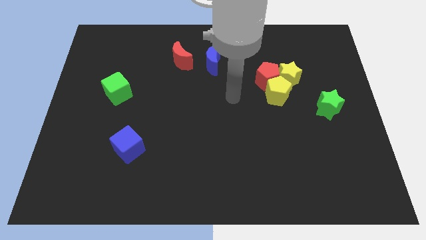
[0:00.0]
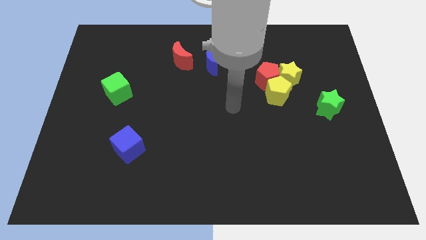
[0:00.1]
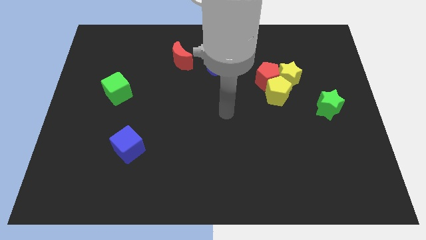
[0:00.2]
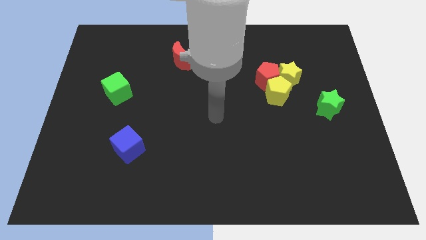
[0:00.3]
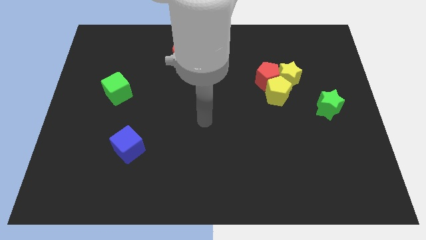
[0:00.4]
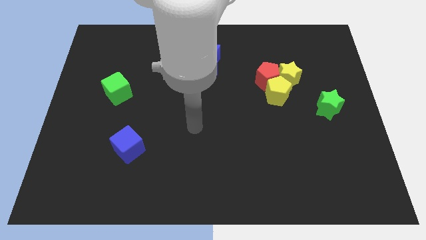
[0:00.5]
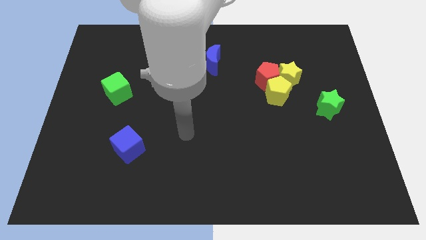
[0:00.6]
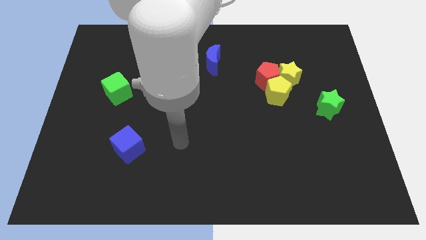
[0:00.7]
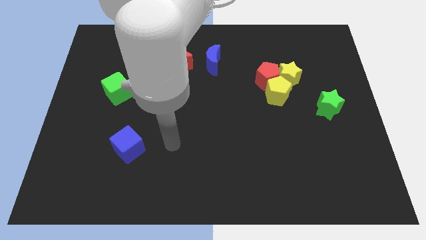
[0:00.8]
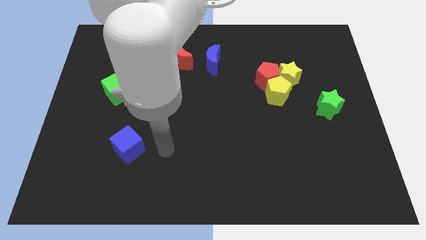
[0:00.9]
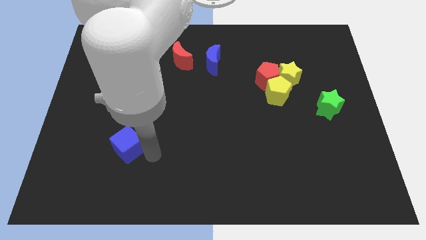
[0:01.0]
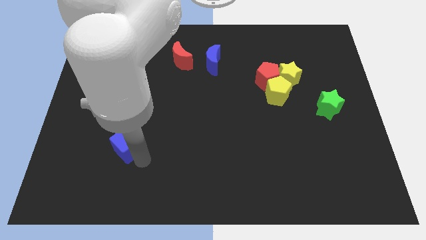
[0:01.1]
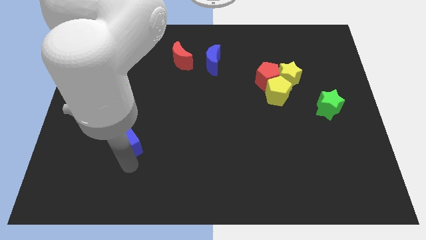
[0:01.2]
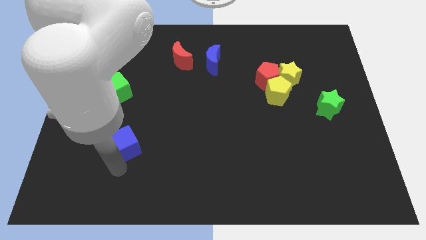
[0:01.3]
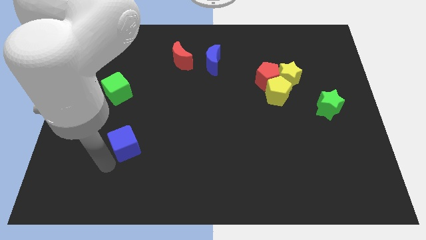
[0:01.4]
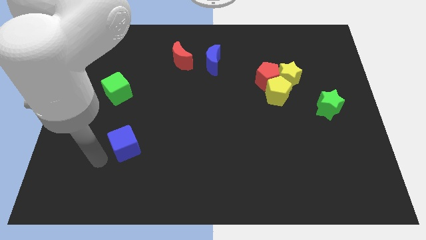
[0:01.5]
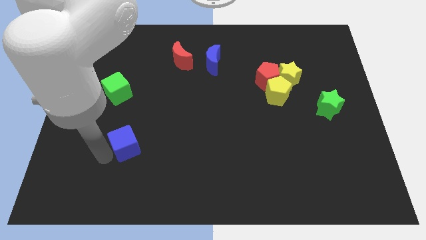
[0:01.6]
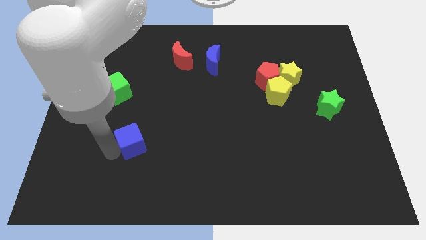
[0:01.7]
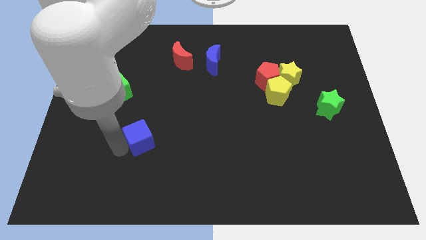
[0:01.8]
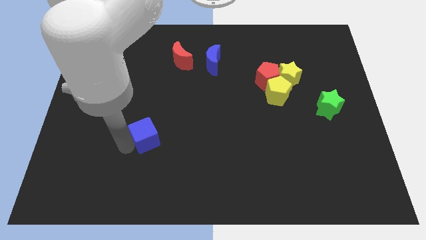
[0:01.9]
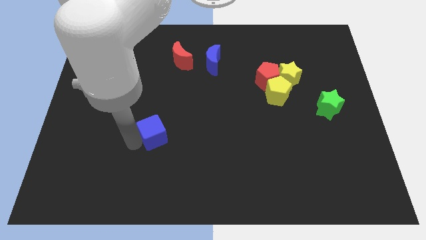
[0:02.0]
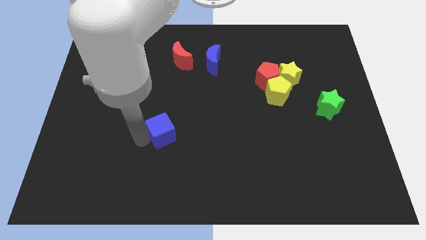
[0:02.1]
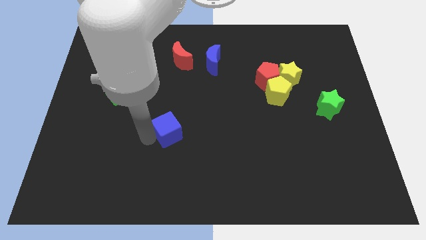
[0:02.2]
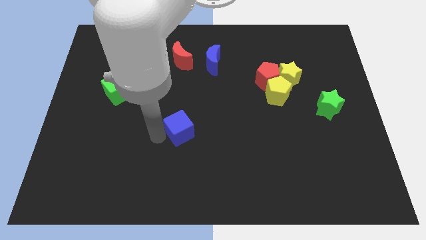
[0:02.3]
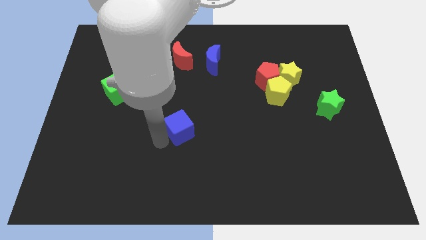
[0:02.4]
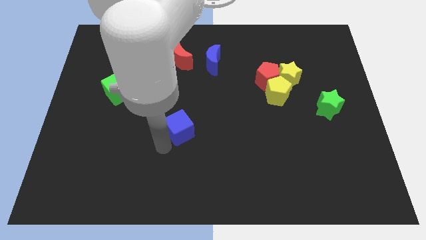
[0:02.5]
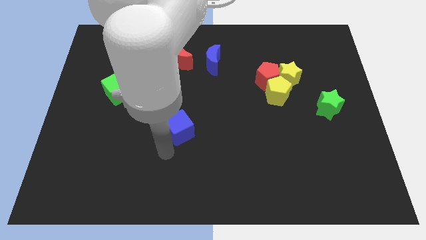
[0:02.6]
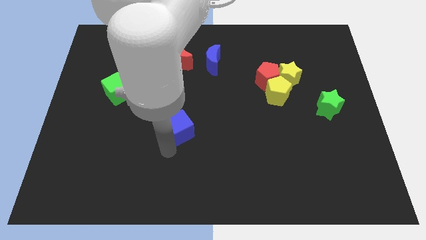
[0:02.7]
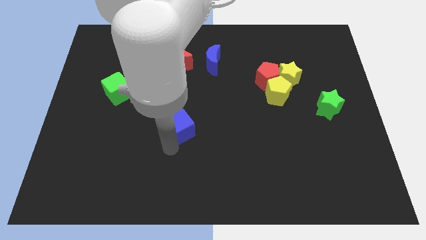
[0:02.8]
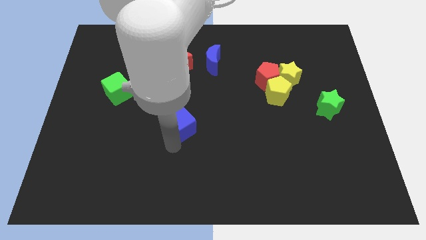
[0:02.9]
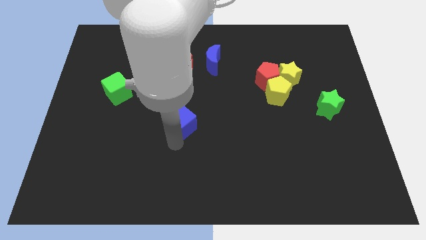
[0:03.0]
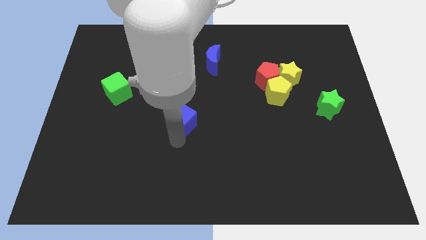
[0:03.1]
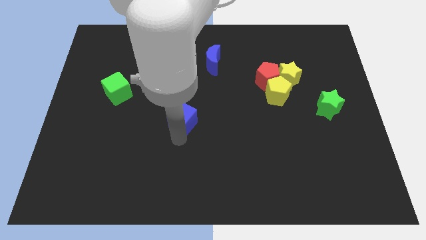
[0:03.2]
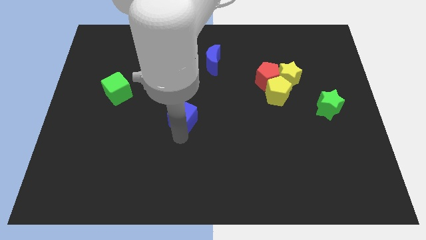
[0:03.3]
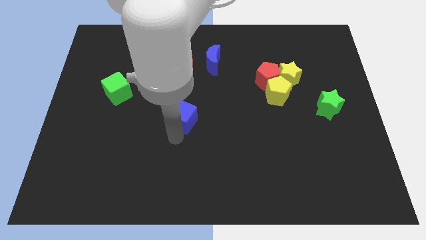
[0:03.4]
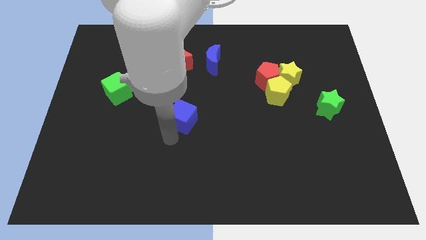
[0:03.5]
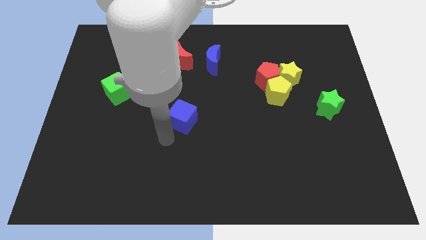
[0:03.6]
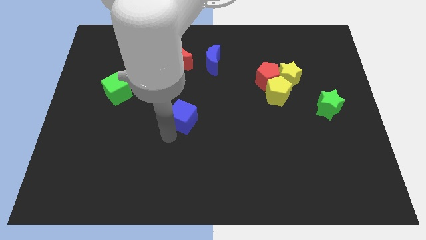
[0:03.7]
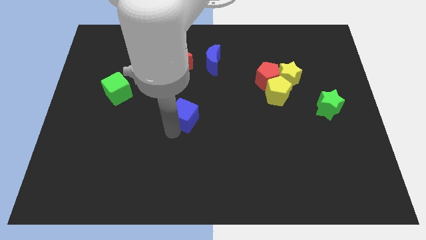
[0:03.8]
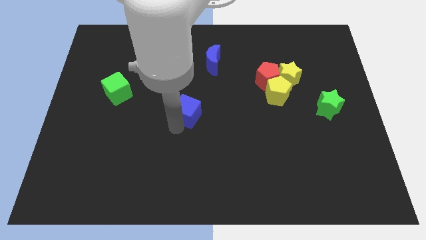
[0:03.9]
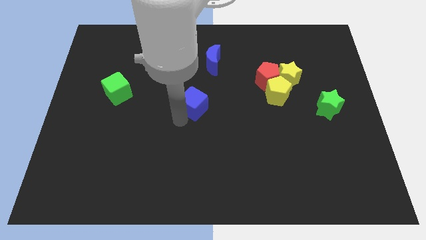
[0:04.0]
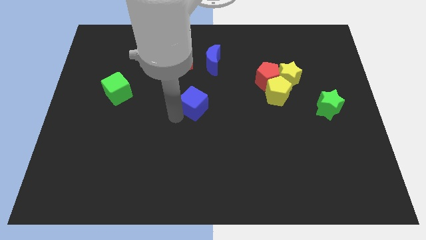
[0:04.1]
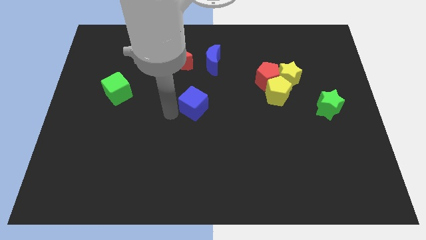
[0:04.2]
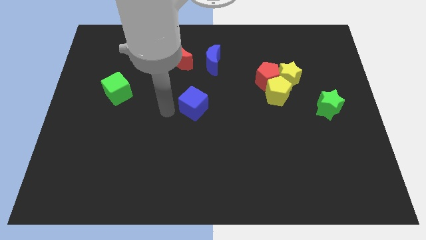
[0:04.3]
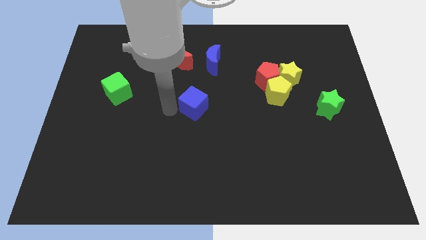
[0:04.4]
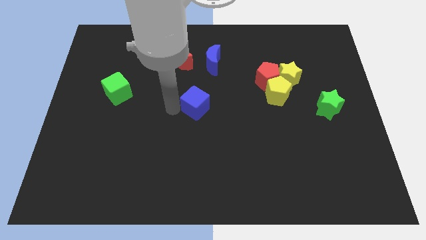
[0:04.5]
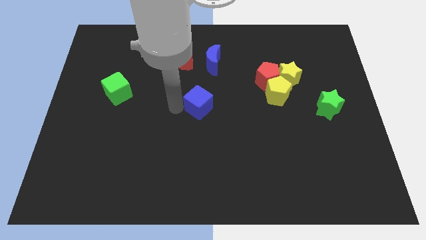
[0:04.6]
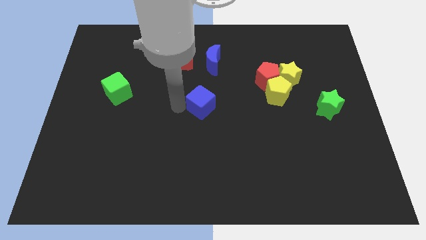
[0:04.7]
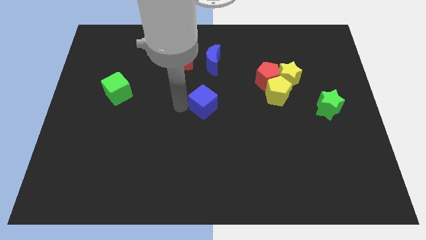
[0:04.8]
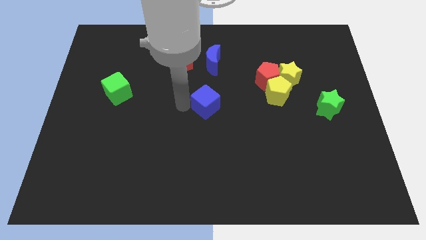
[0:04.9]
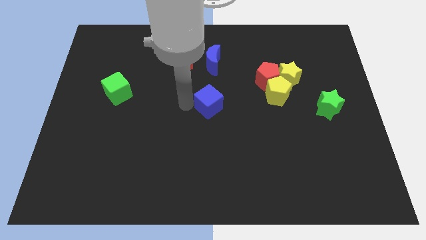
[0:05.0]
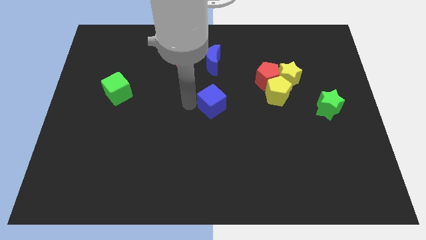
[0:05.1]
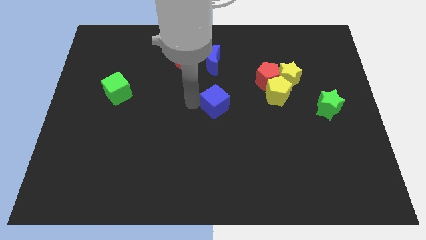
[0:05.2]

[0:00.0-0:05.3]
slide the blue cube left of the yellow pentagon

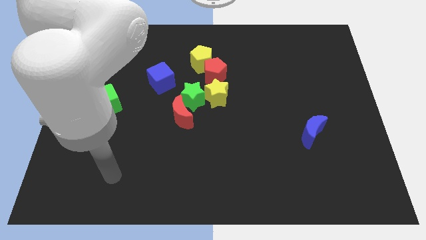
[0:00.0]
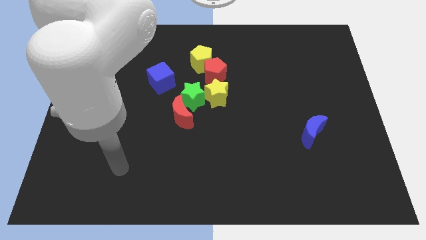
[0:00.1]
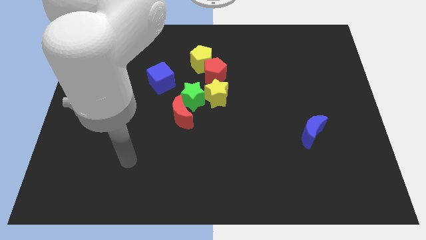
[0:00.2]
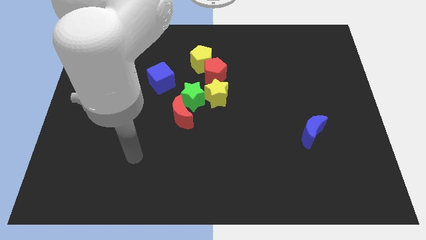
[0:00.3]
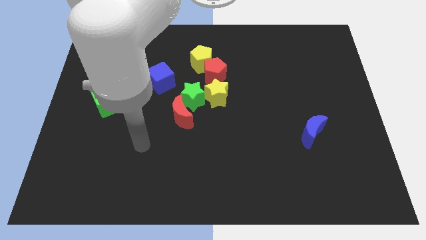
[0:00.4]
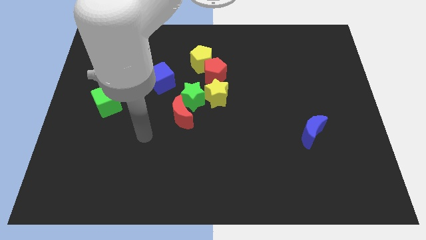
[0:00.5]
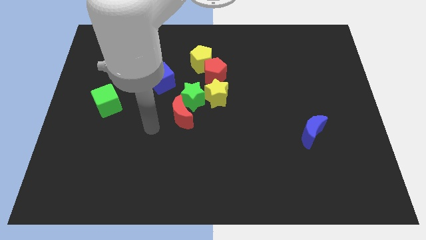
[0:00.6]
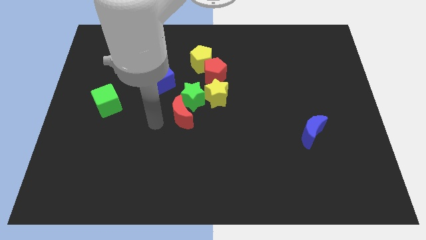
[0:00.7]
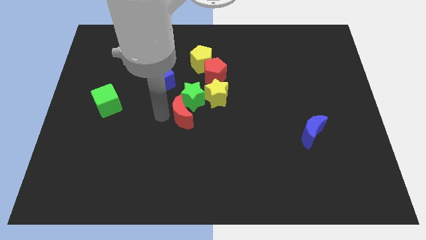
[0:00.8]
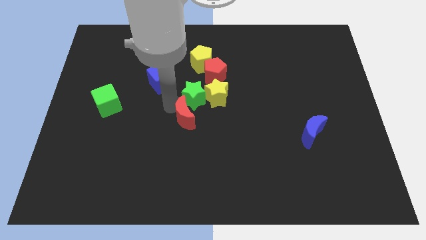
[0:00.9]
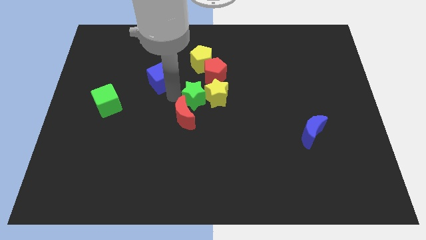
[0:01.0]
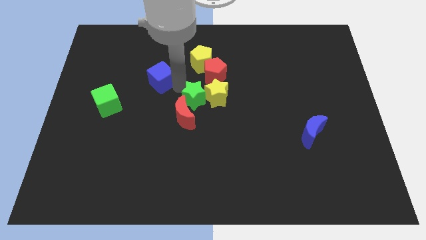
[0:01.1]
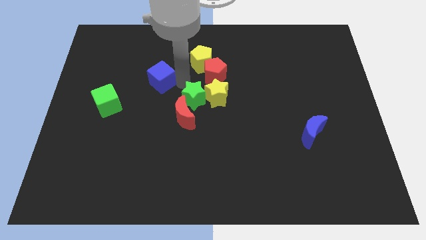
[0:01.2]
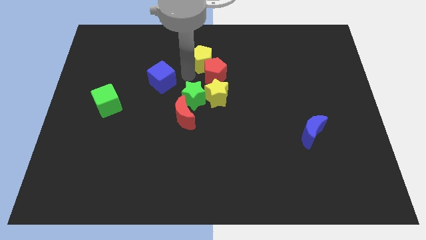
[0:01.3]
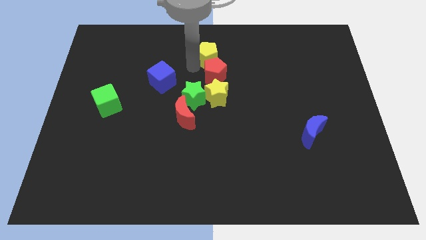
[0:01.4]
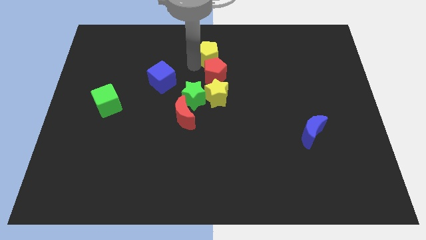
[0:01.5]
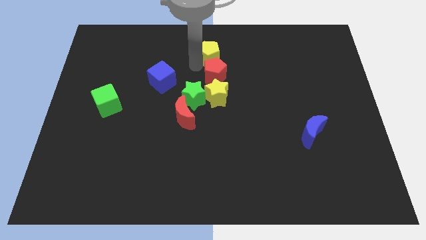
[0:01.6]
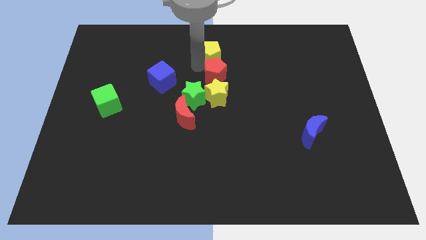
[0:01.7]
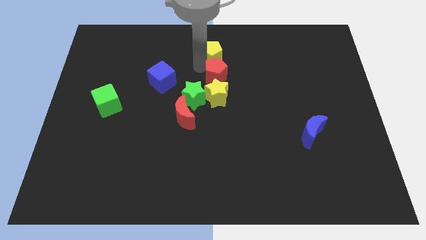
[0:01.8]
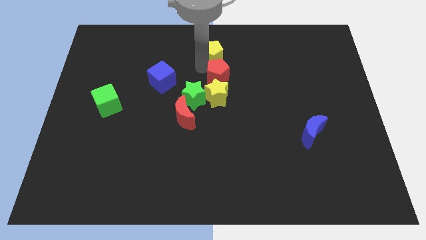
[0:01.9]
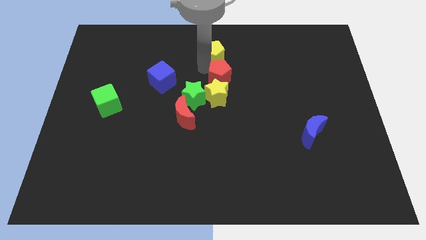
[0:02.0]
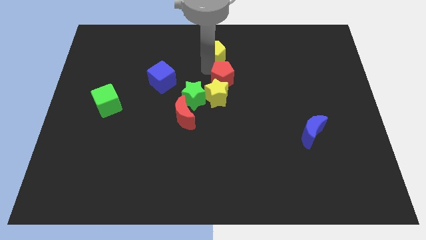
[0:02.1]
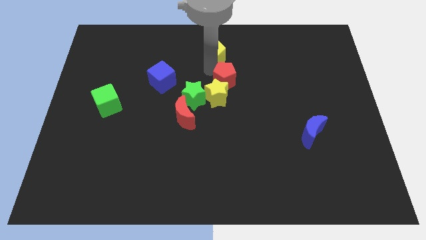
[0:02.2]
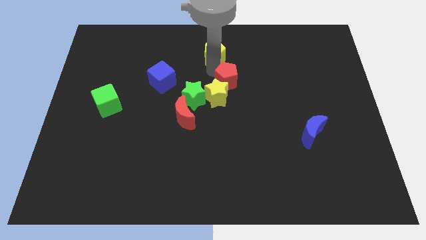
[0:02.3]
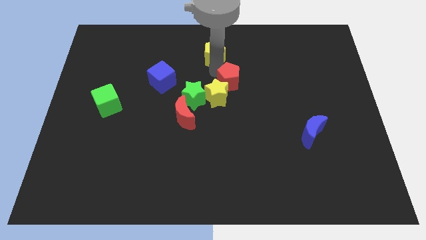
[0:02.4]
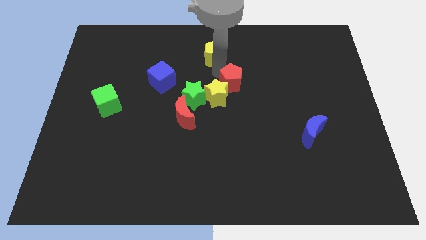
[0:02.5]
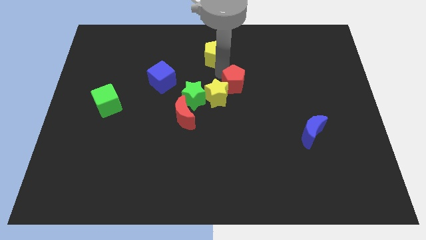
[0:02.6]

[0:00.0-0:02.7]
put the red pentagon to the right of the green star
